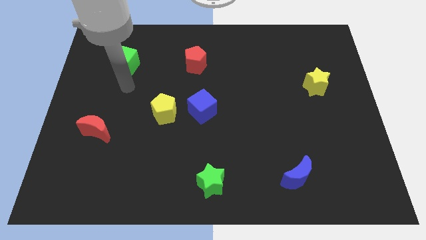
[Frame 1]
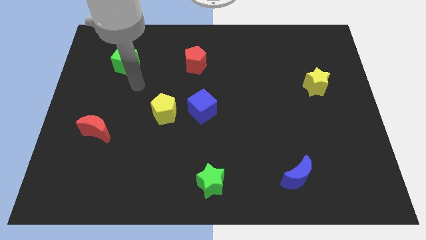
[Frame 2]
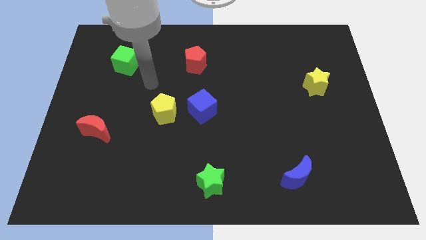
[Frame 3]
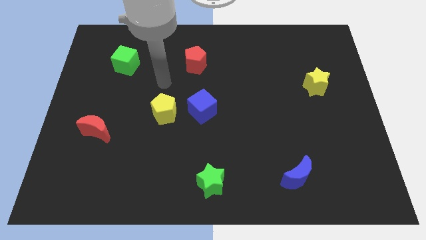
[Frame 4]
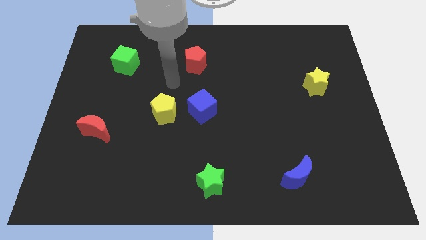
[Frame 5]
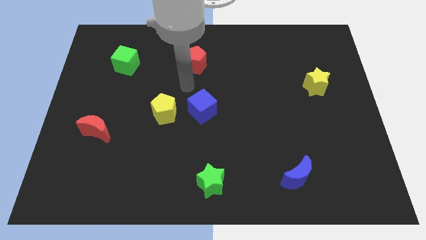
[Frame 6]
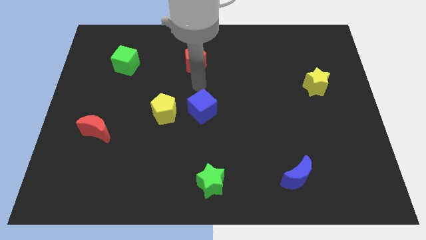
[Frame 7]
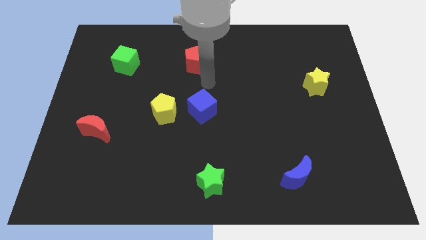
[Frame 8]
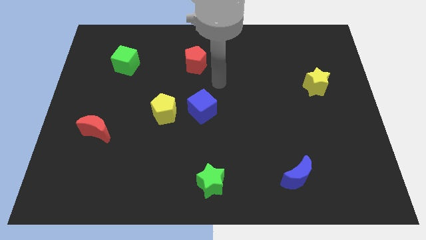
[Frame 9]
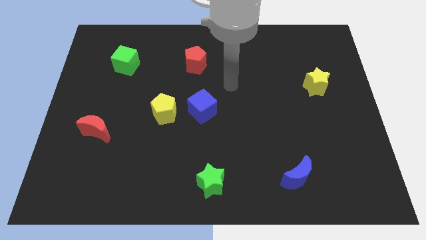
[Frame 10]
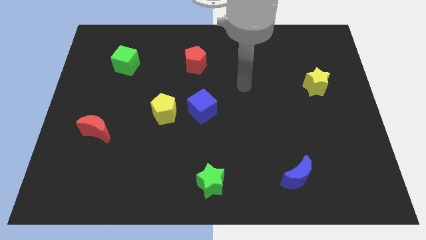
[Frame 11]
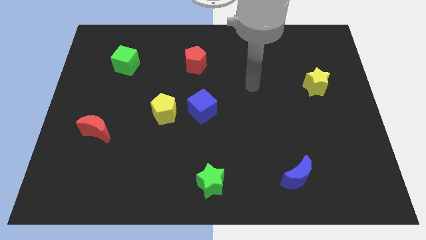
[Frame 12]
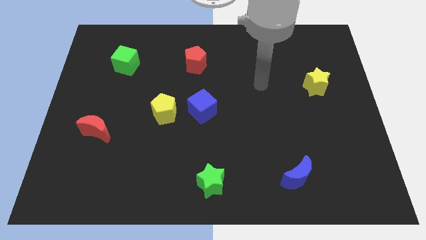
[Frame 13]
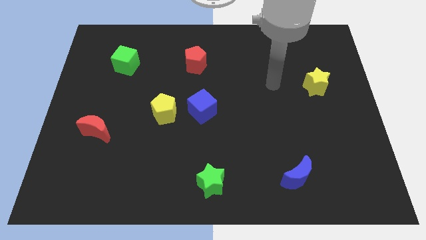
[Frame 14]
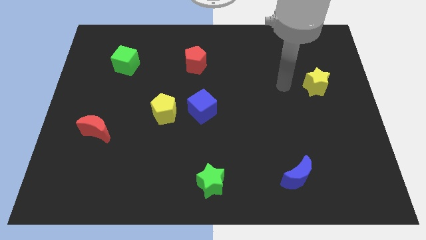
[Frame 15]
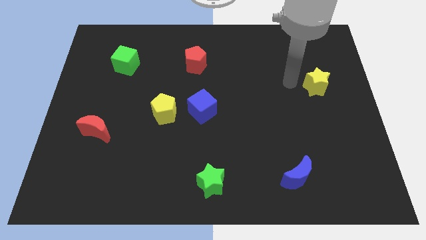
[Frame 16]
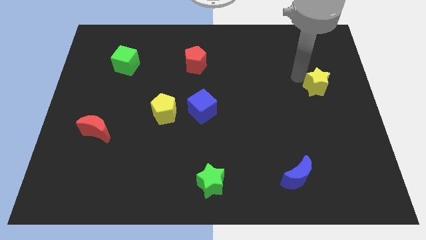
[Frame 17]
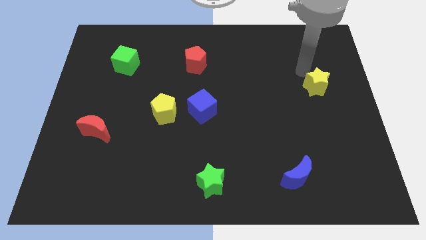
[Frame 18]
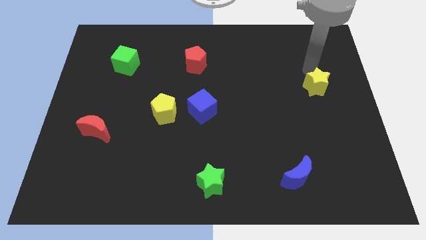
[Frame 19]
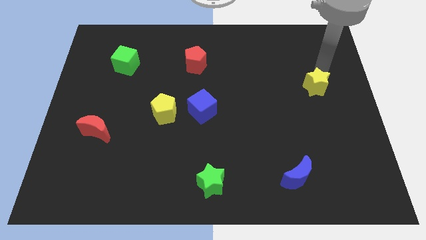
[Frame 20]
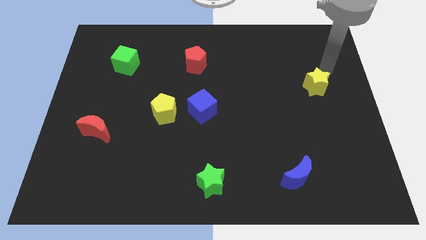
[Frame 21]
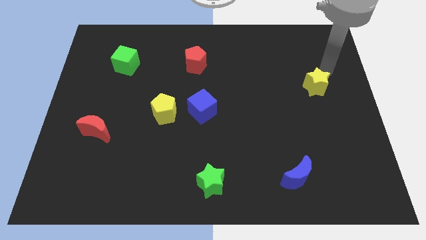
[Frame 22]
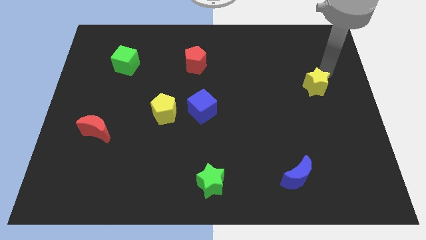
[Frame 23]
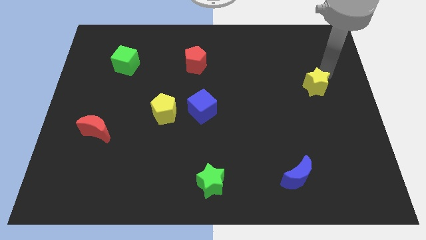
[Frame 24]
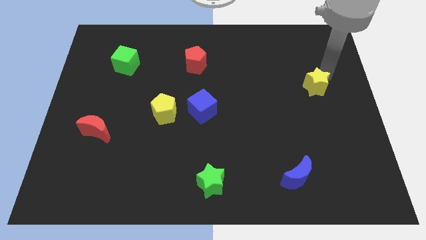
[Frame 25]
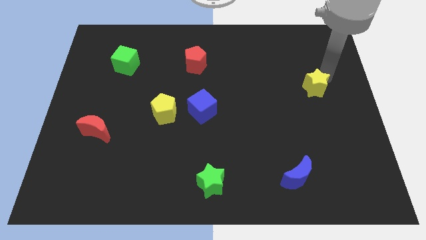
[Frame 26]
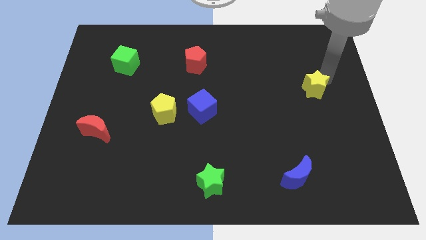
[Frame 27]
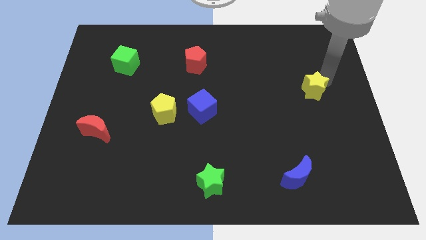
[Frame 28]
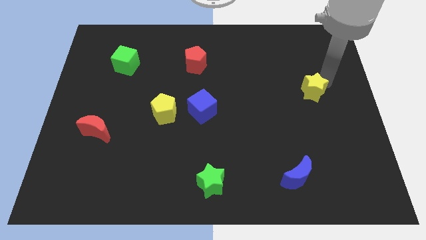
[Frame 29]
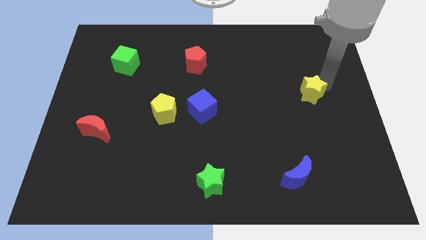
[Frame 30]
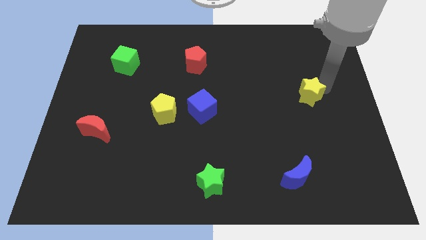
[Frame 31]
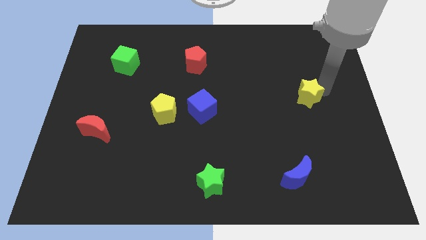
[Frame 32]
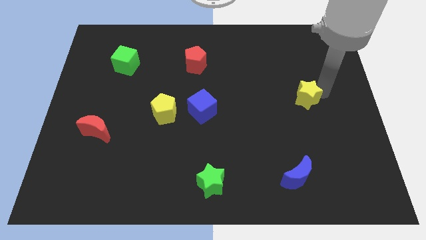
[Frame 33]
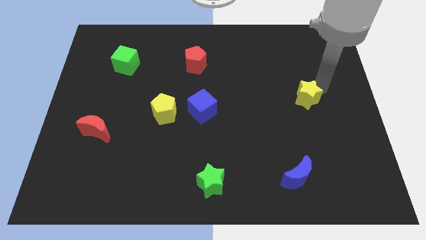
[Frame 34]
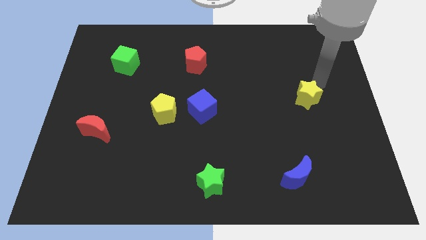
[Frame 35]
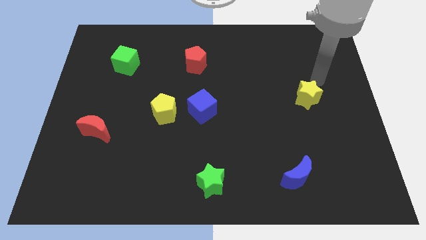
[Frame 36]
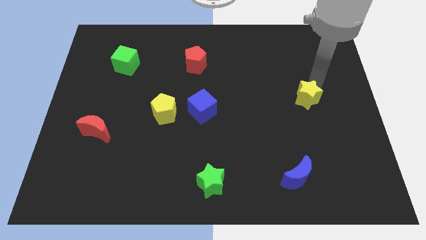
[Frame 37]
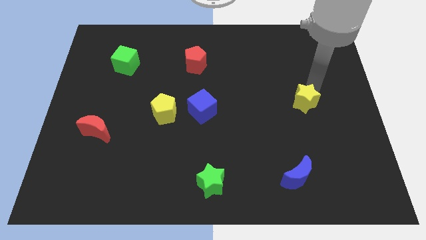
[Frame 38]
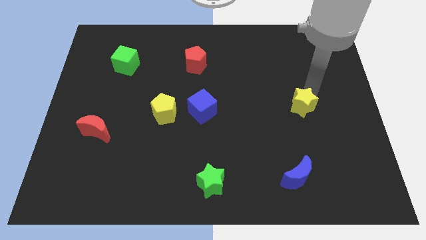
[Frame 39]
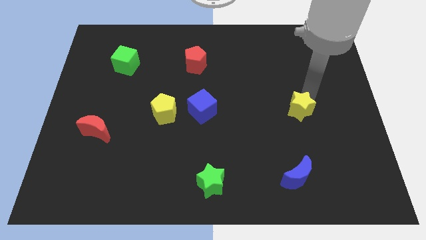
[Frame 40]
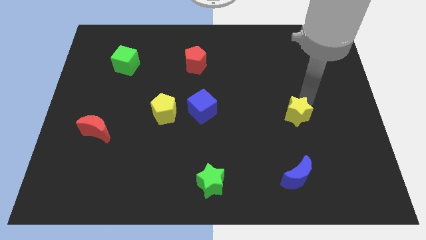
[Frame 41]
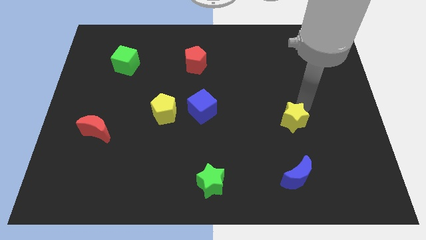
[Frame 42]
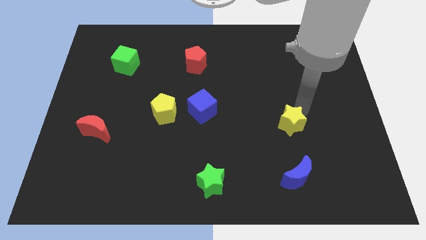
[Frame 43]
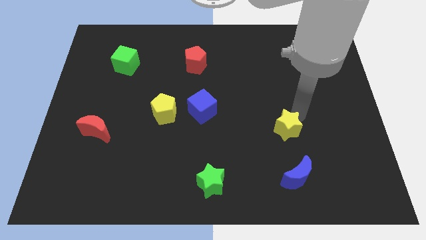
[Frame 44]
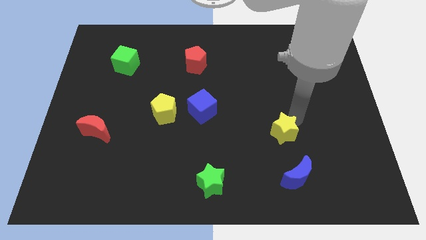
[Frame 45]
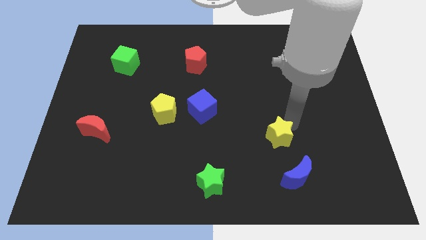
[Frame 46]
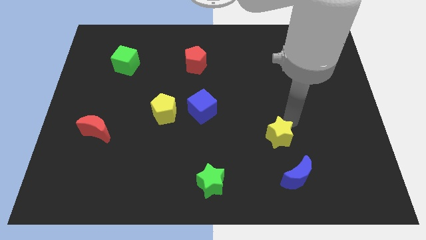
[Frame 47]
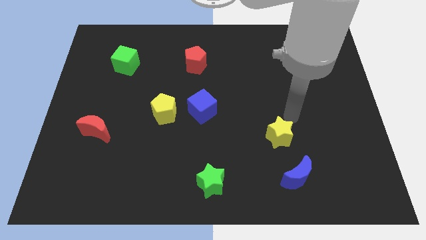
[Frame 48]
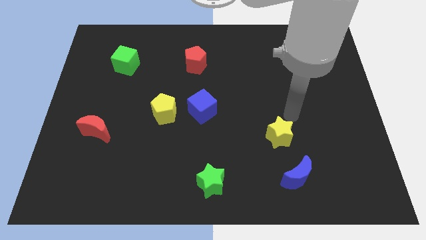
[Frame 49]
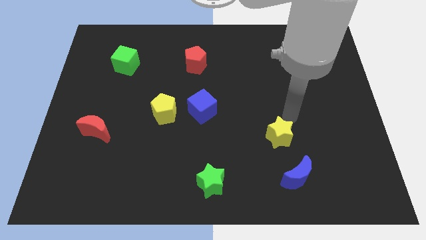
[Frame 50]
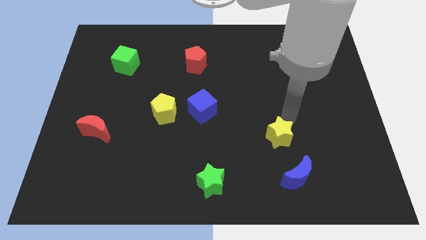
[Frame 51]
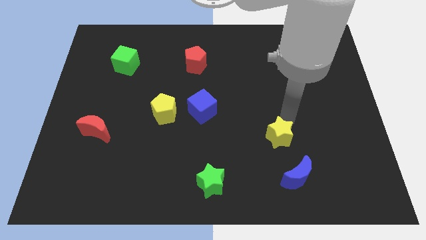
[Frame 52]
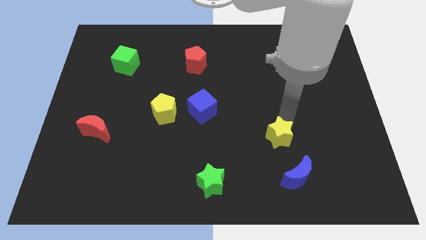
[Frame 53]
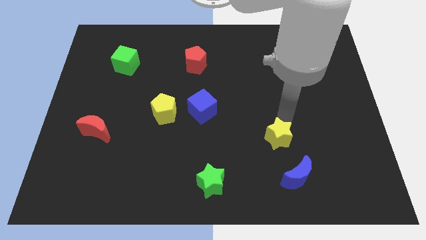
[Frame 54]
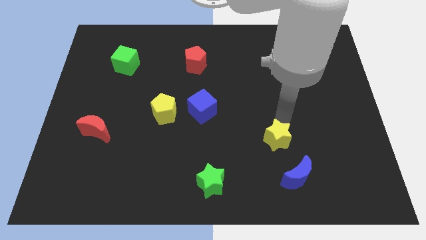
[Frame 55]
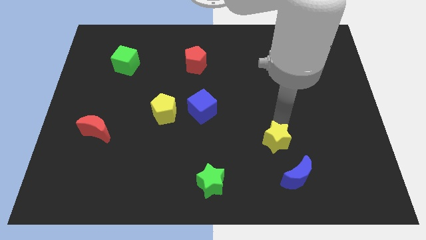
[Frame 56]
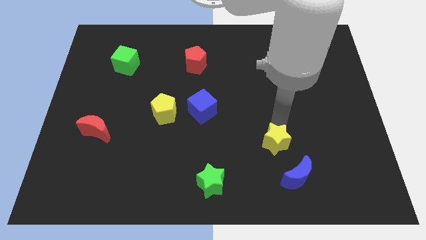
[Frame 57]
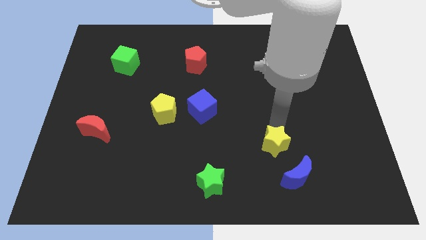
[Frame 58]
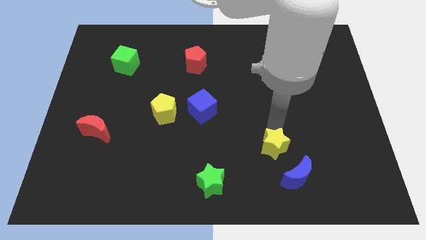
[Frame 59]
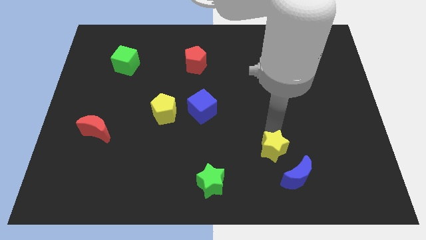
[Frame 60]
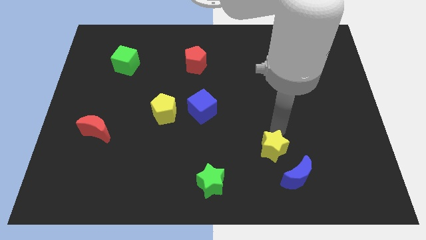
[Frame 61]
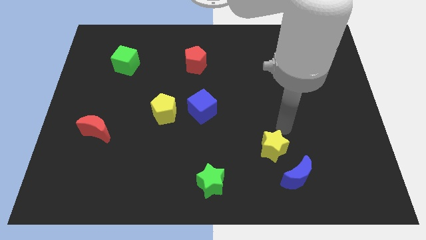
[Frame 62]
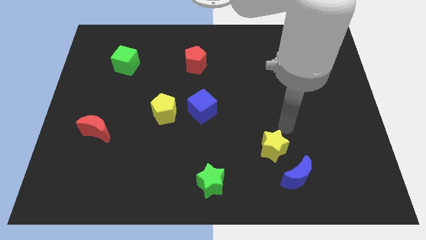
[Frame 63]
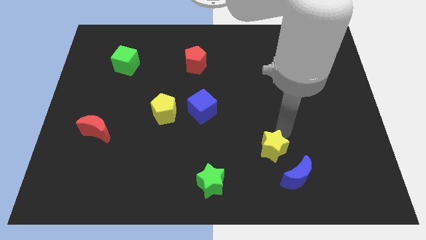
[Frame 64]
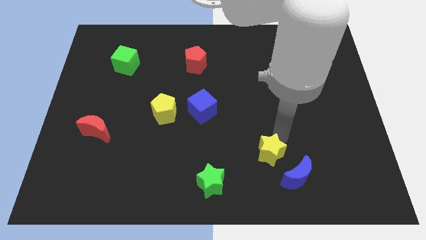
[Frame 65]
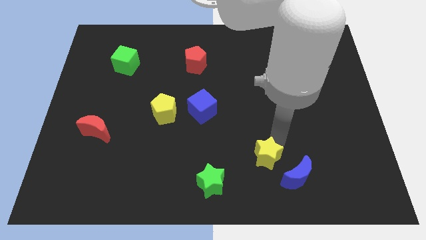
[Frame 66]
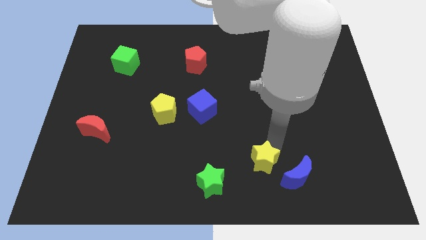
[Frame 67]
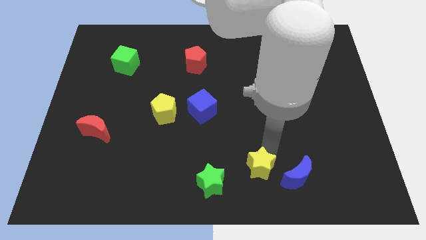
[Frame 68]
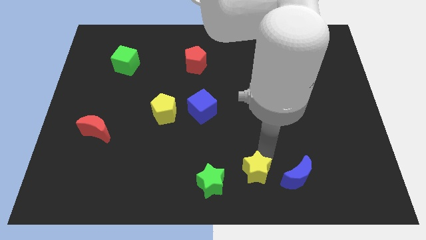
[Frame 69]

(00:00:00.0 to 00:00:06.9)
move the yellow star to the bottom
